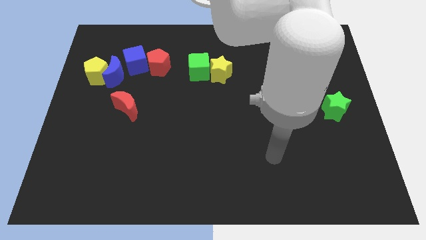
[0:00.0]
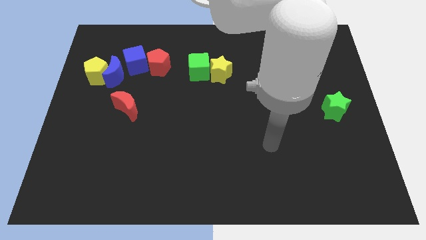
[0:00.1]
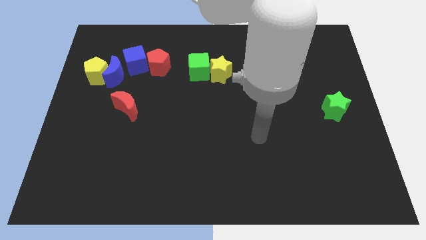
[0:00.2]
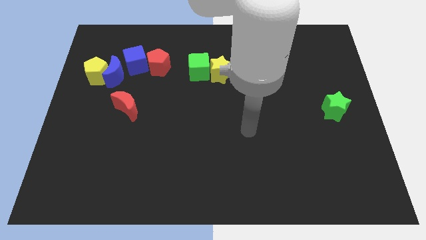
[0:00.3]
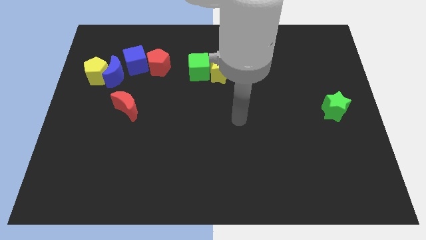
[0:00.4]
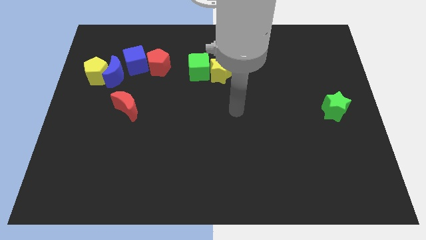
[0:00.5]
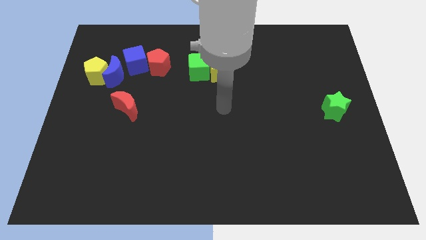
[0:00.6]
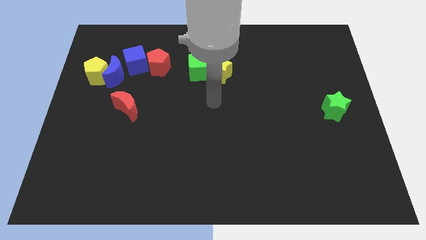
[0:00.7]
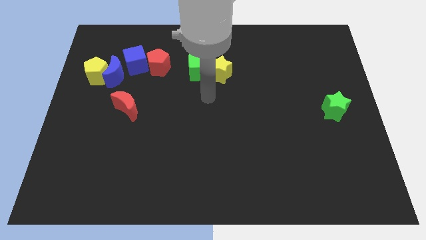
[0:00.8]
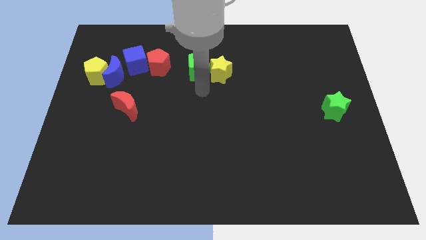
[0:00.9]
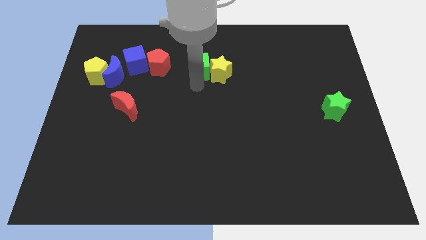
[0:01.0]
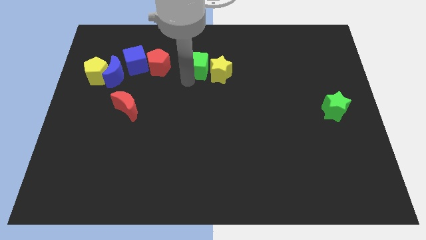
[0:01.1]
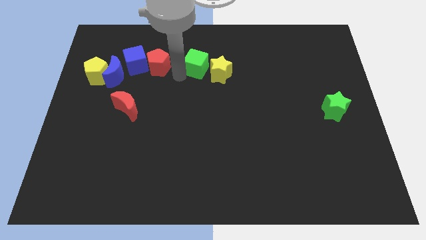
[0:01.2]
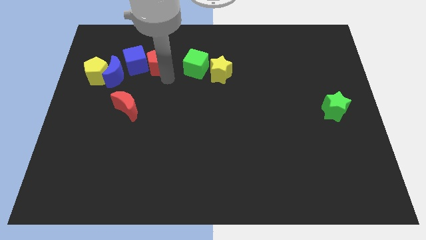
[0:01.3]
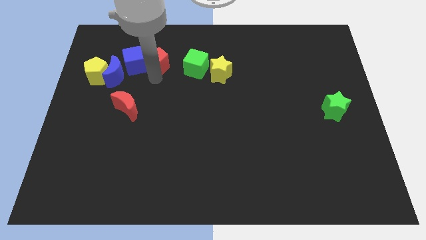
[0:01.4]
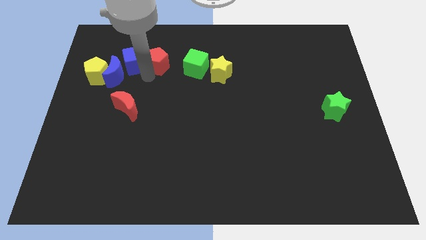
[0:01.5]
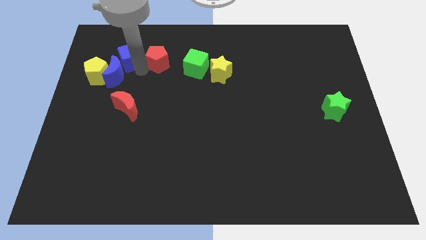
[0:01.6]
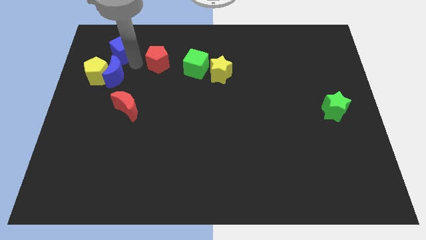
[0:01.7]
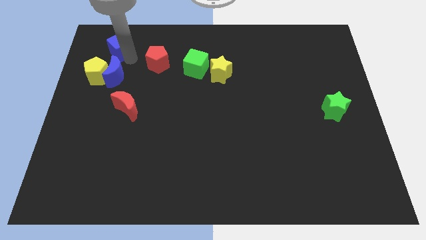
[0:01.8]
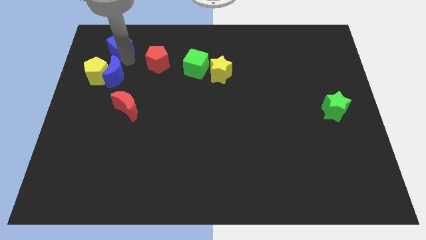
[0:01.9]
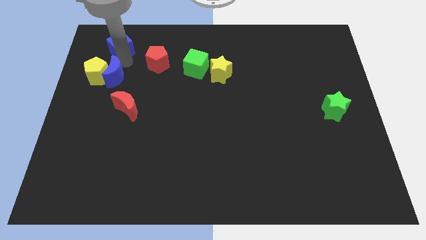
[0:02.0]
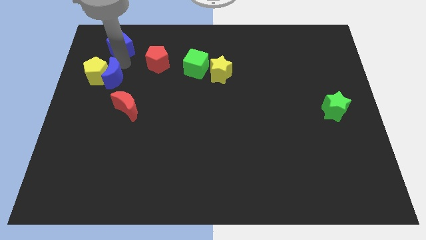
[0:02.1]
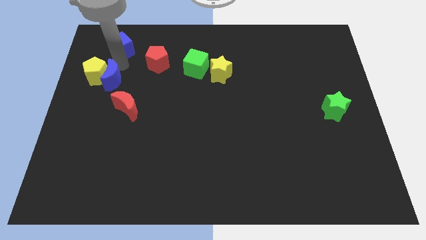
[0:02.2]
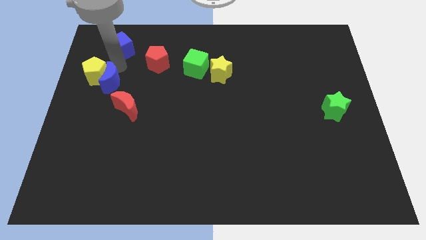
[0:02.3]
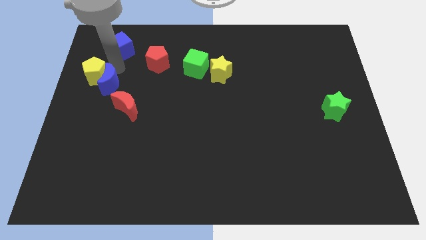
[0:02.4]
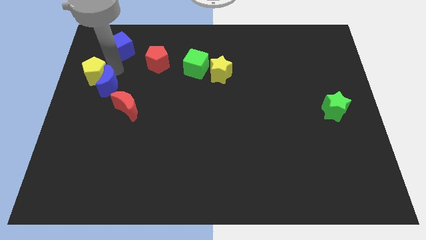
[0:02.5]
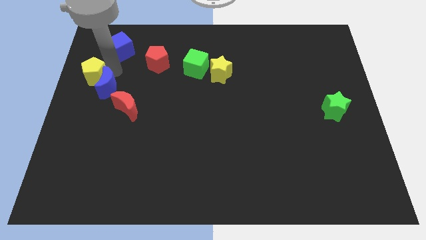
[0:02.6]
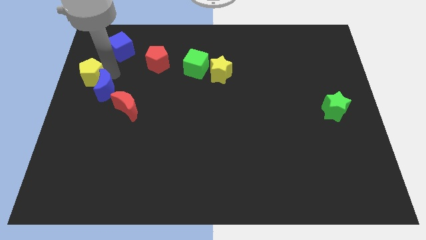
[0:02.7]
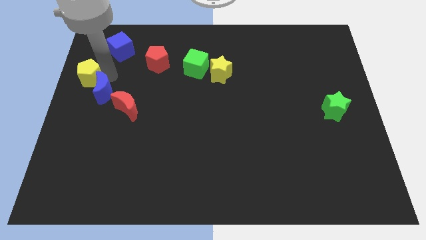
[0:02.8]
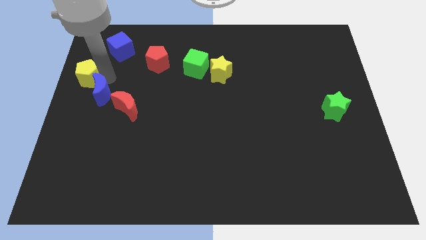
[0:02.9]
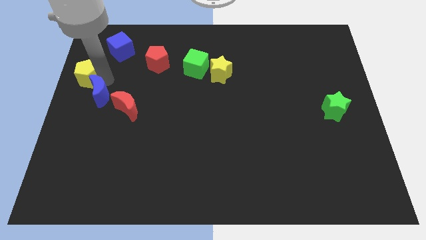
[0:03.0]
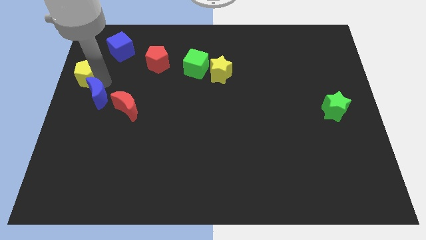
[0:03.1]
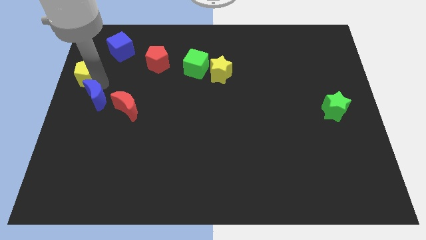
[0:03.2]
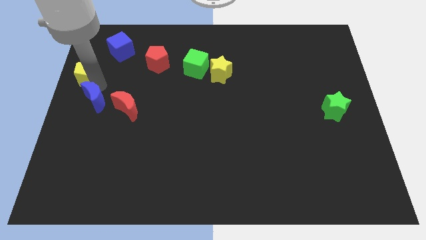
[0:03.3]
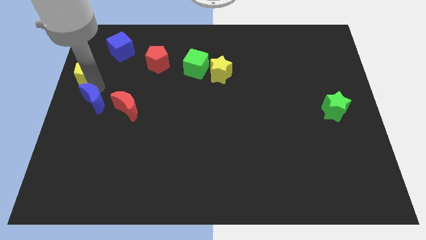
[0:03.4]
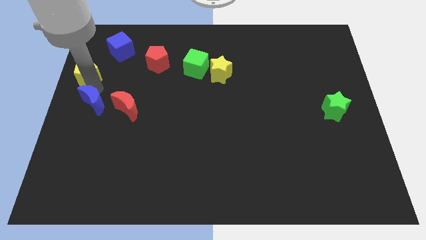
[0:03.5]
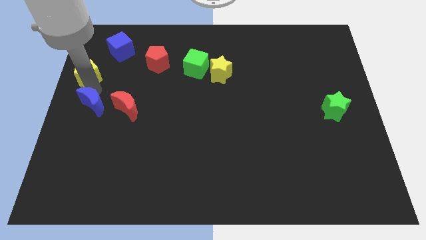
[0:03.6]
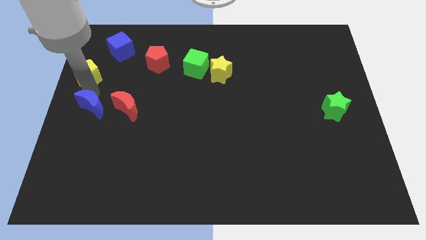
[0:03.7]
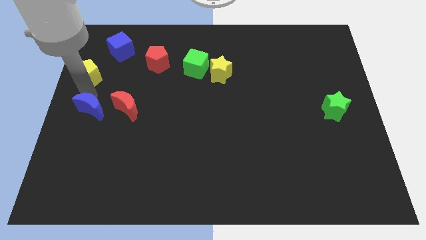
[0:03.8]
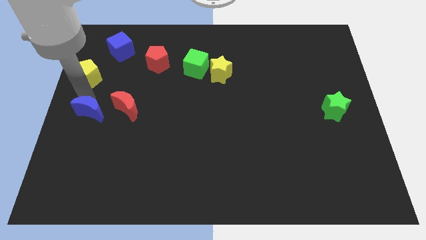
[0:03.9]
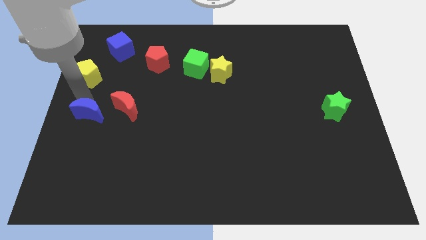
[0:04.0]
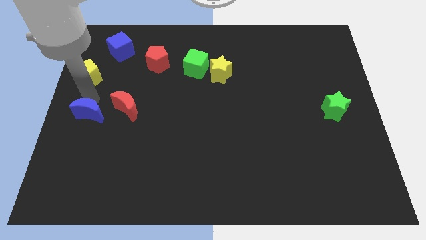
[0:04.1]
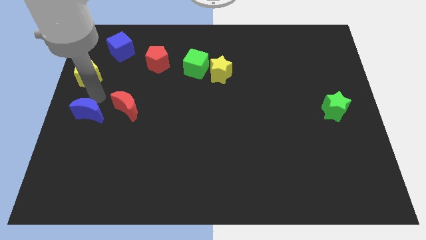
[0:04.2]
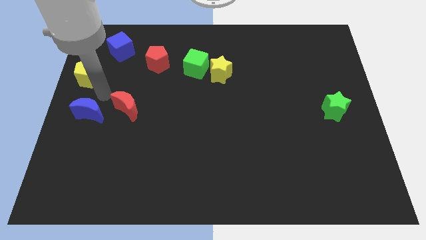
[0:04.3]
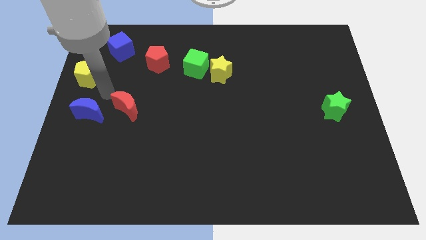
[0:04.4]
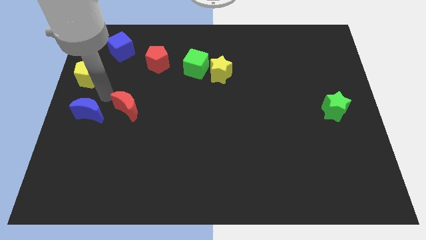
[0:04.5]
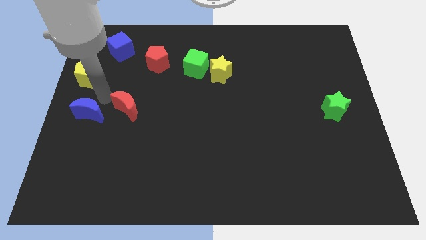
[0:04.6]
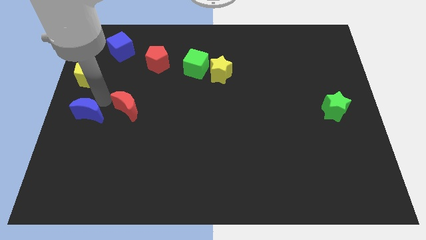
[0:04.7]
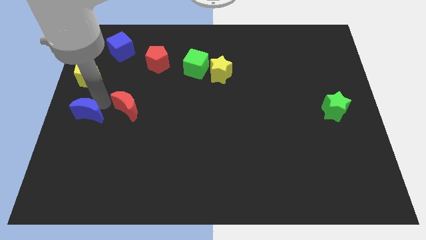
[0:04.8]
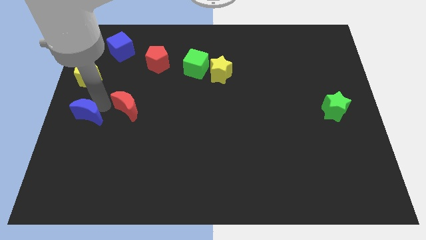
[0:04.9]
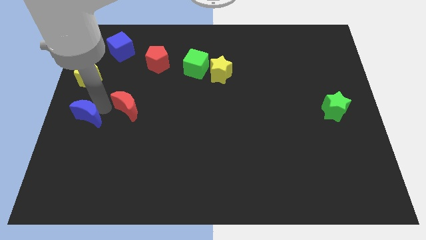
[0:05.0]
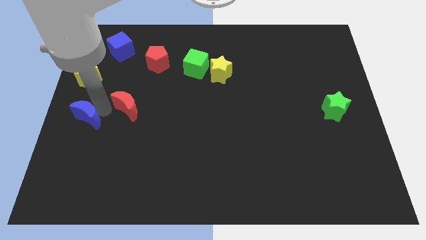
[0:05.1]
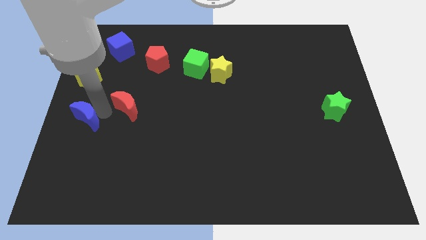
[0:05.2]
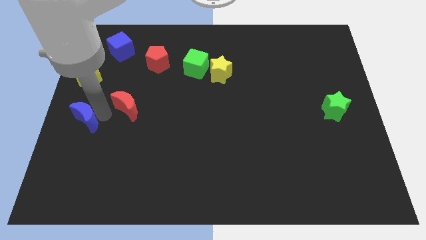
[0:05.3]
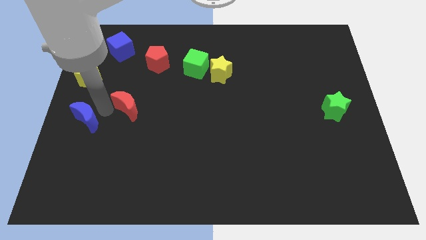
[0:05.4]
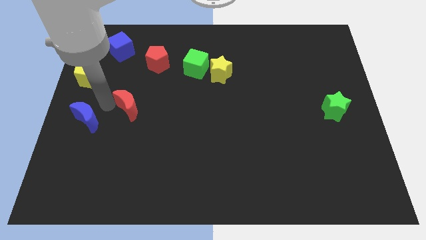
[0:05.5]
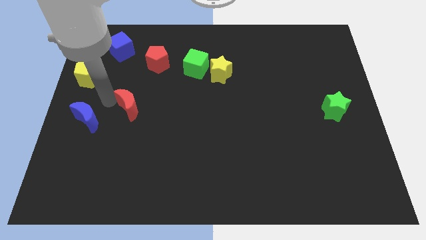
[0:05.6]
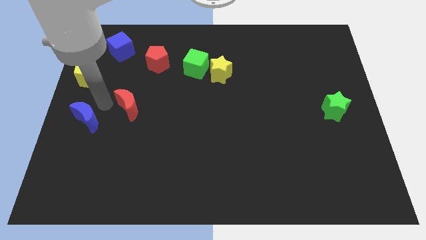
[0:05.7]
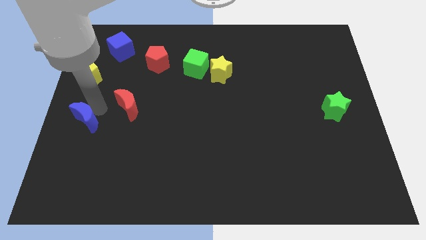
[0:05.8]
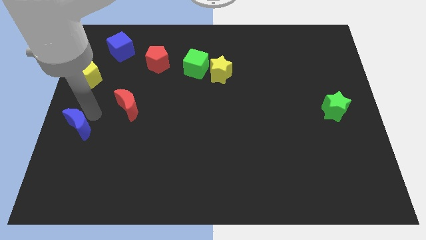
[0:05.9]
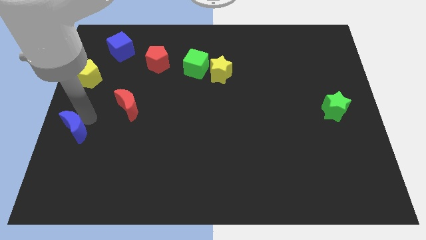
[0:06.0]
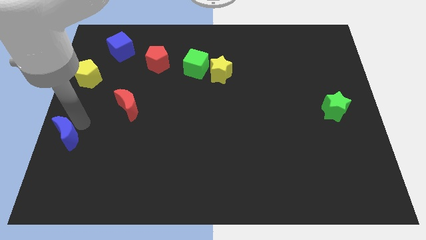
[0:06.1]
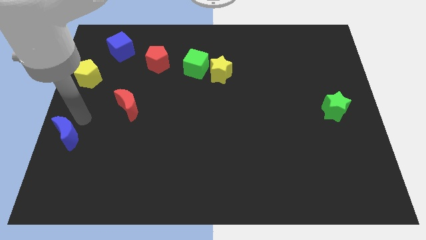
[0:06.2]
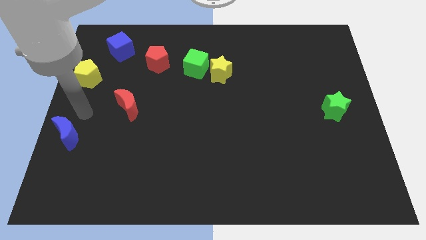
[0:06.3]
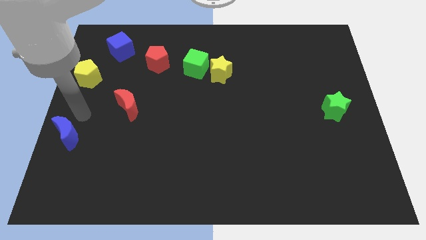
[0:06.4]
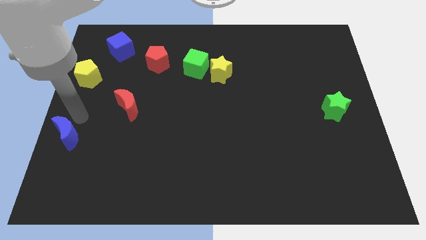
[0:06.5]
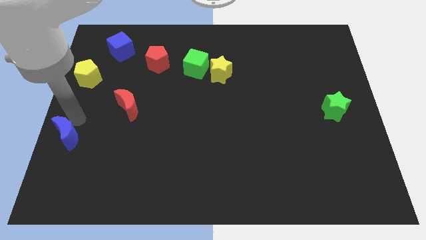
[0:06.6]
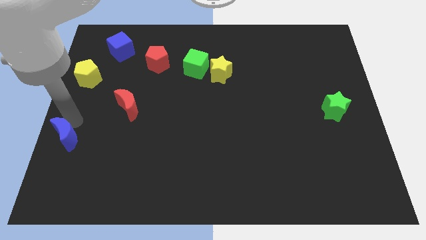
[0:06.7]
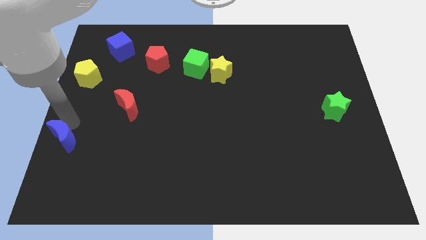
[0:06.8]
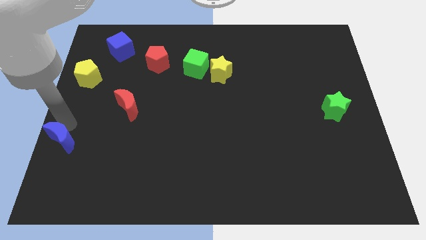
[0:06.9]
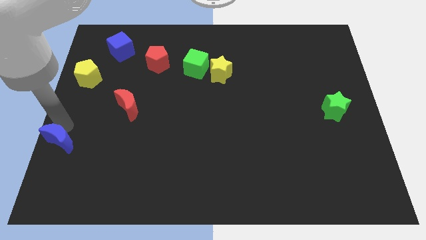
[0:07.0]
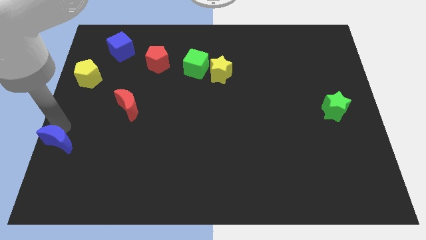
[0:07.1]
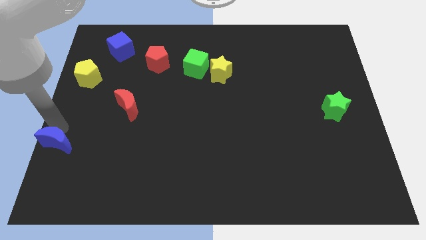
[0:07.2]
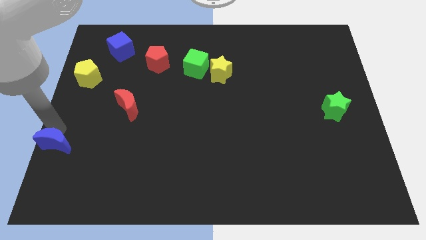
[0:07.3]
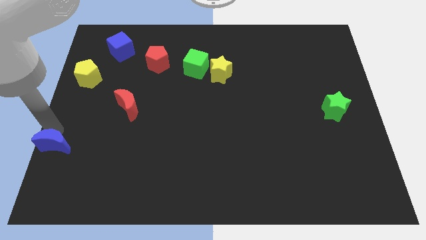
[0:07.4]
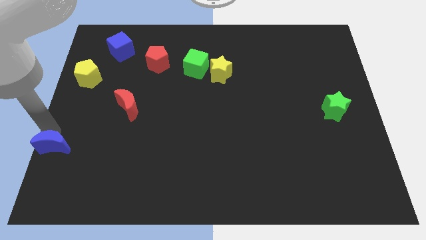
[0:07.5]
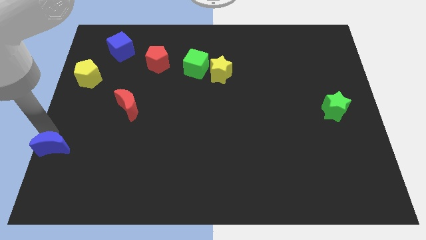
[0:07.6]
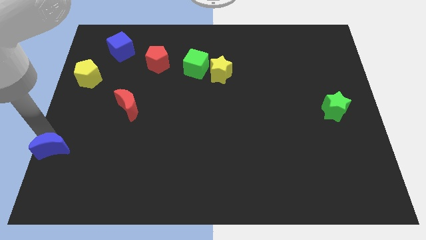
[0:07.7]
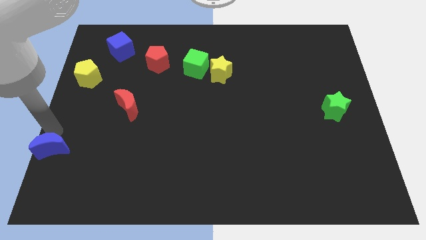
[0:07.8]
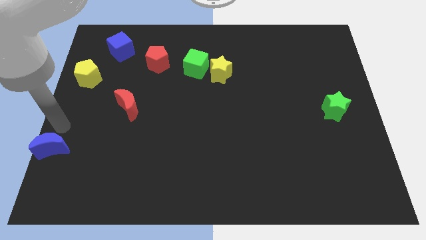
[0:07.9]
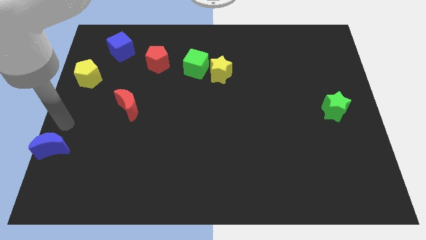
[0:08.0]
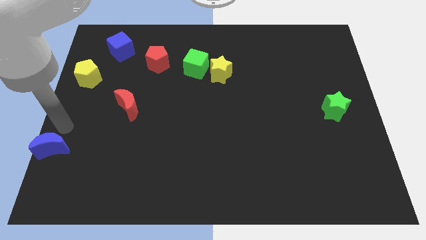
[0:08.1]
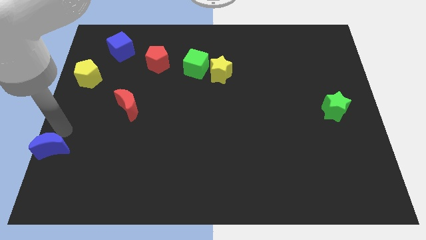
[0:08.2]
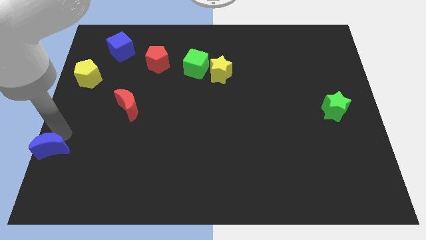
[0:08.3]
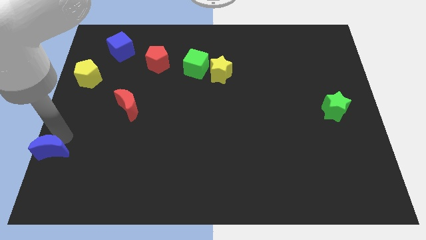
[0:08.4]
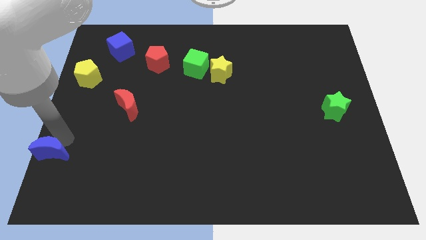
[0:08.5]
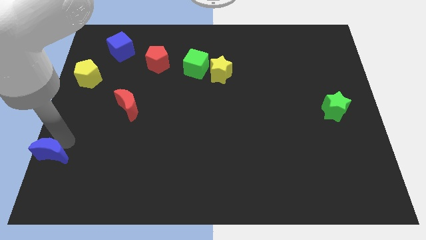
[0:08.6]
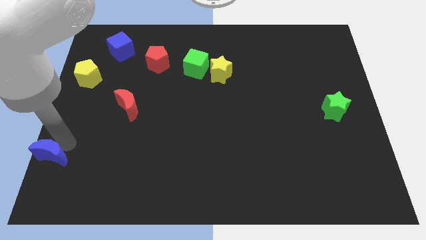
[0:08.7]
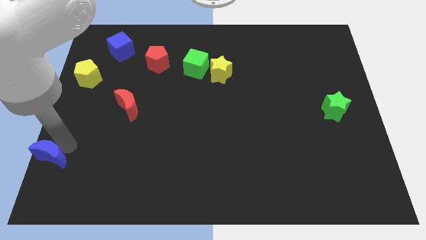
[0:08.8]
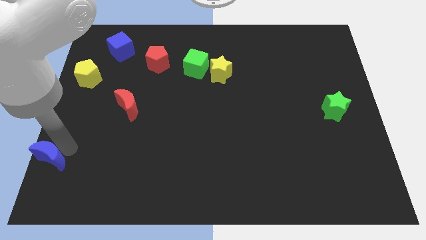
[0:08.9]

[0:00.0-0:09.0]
push the blue moon to the bottom left corner
